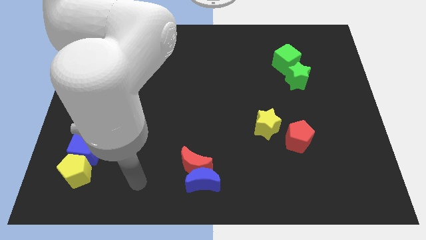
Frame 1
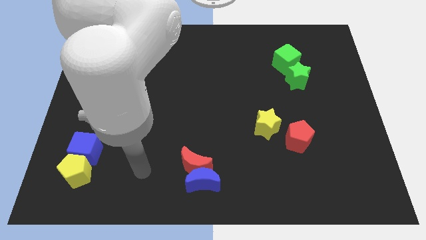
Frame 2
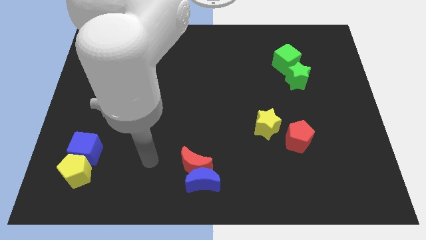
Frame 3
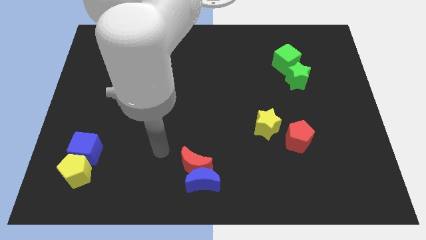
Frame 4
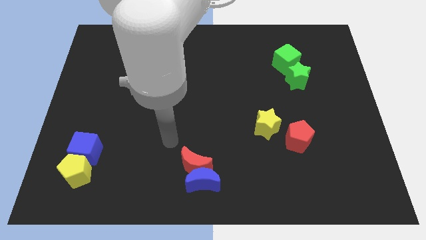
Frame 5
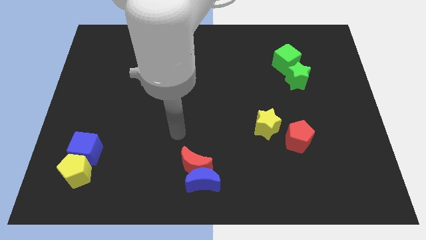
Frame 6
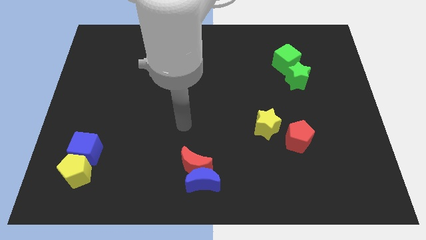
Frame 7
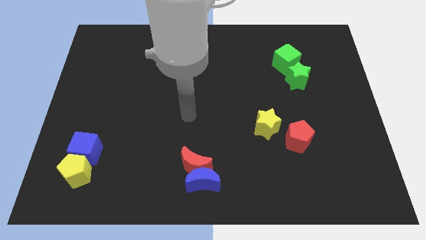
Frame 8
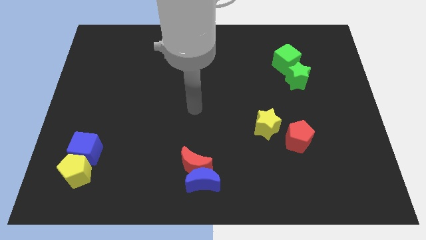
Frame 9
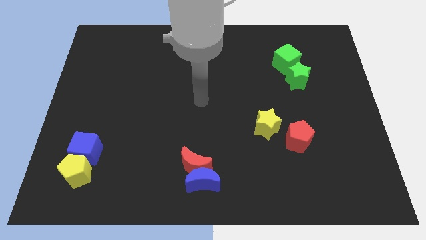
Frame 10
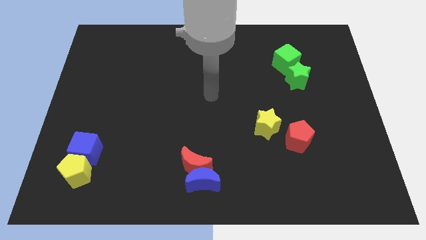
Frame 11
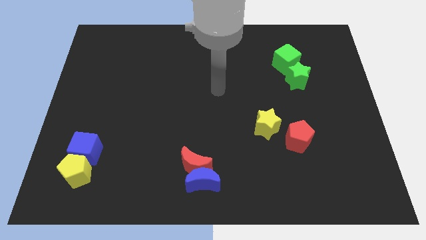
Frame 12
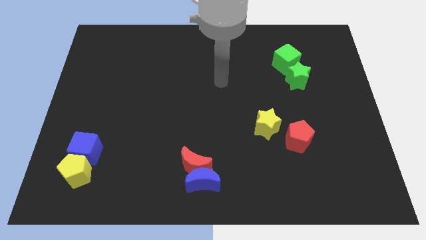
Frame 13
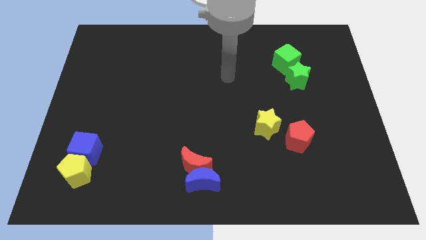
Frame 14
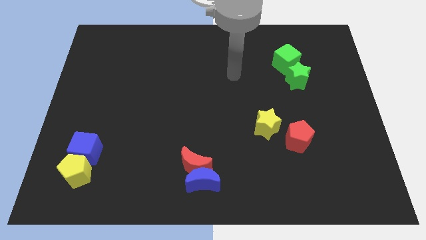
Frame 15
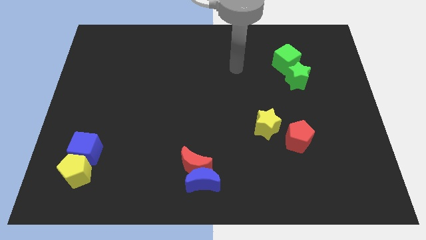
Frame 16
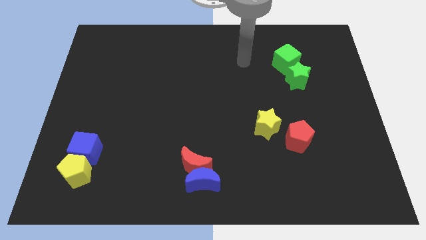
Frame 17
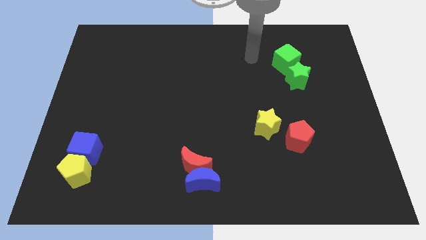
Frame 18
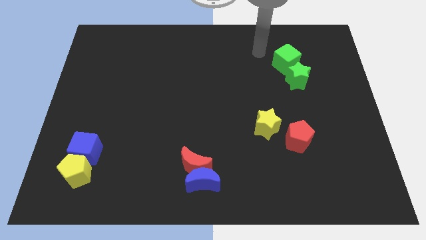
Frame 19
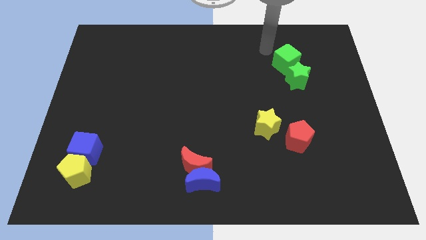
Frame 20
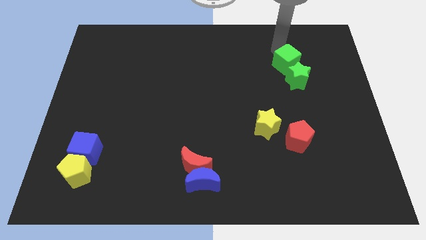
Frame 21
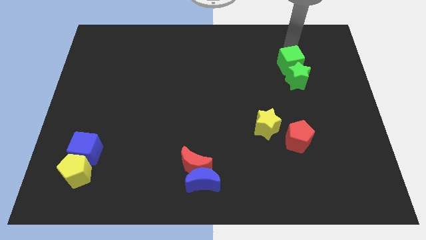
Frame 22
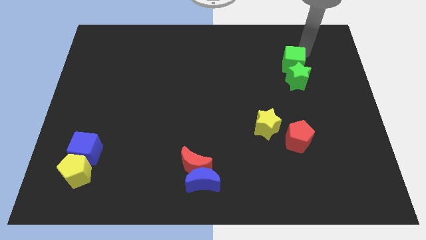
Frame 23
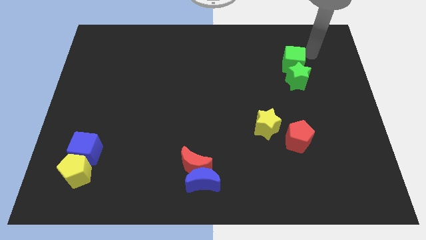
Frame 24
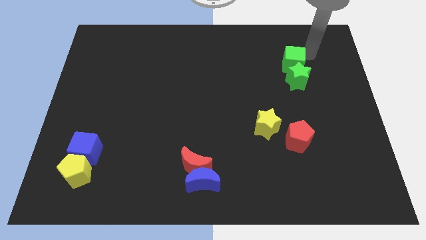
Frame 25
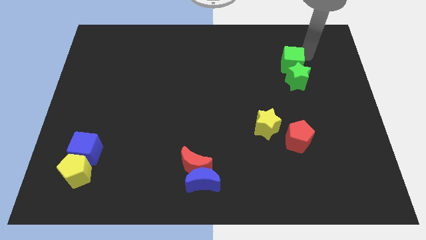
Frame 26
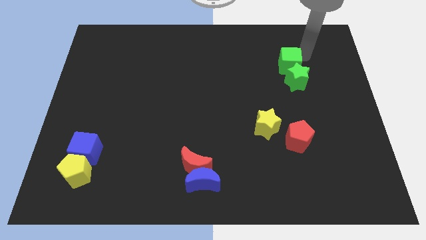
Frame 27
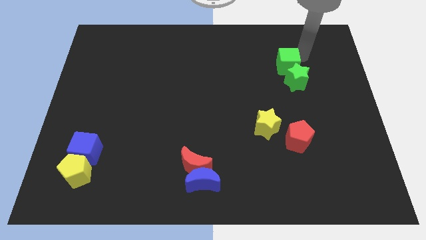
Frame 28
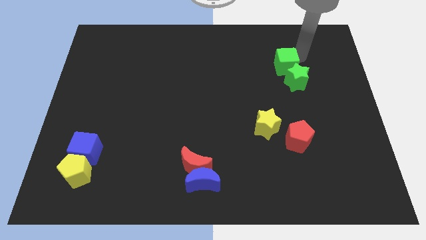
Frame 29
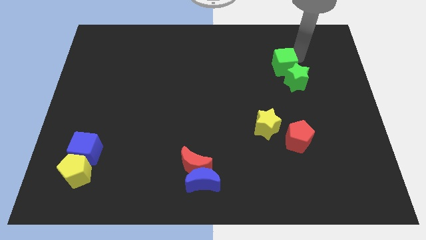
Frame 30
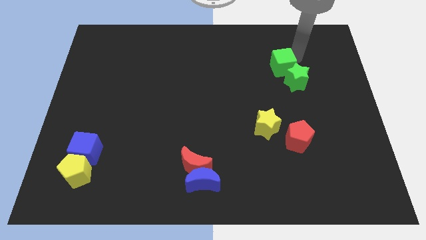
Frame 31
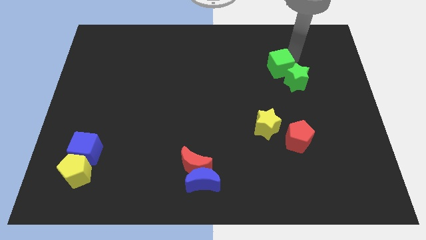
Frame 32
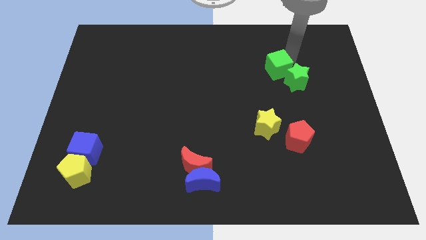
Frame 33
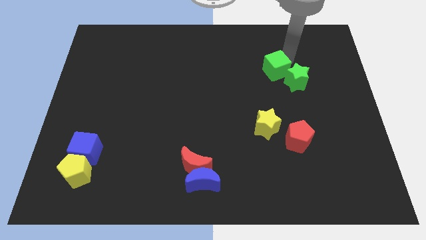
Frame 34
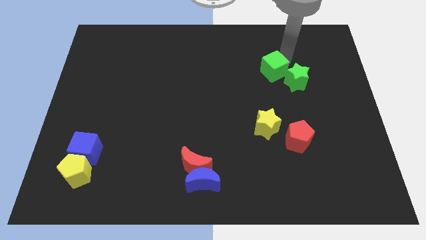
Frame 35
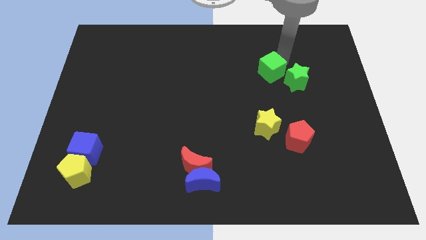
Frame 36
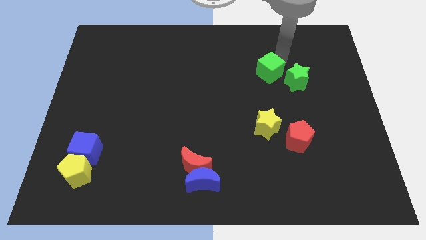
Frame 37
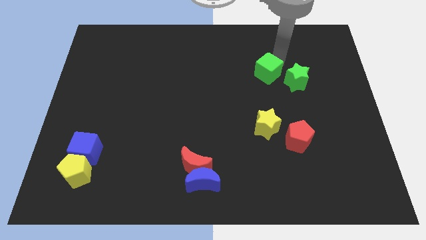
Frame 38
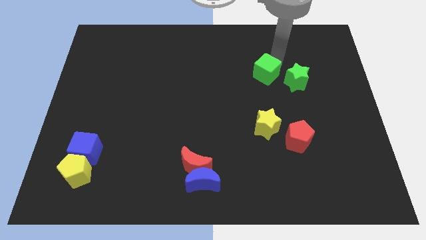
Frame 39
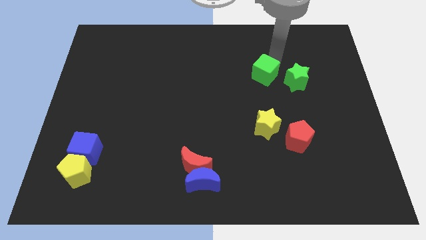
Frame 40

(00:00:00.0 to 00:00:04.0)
slide the green cube a little down and then to the left

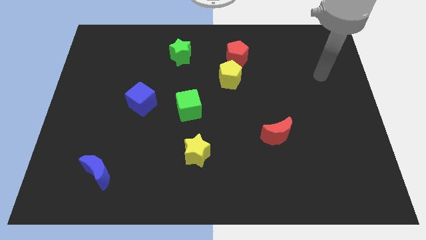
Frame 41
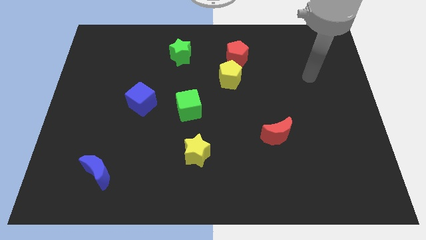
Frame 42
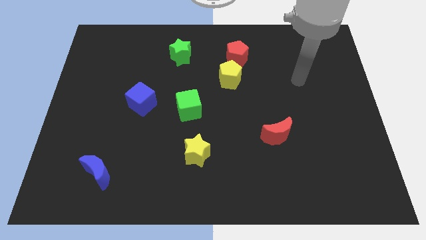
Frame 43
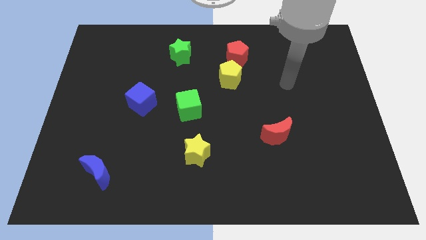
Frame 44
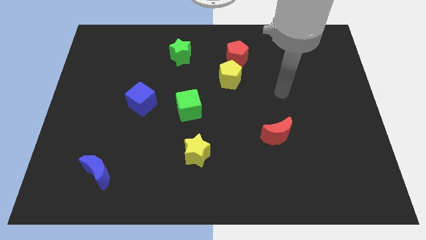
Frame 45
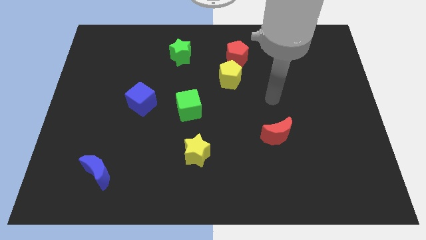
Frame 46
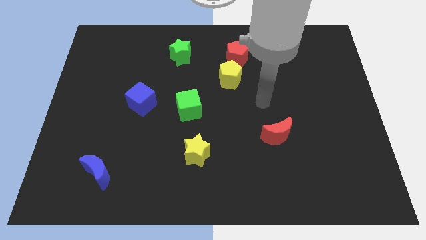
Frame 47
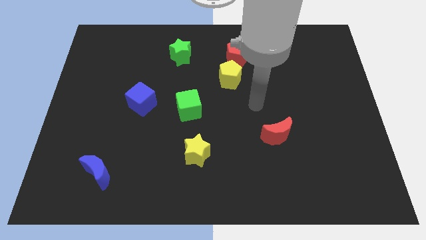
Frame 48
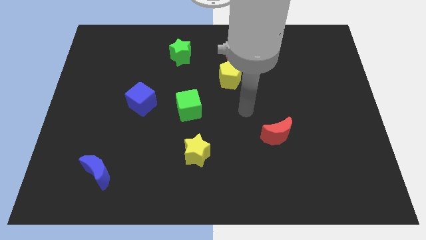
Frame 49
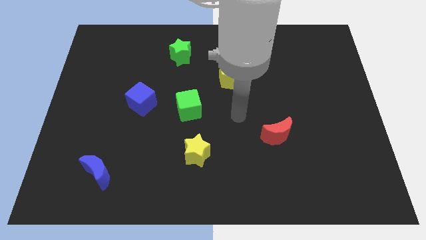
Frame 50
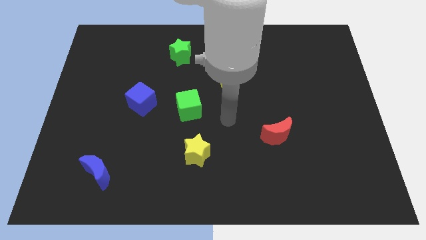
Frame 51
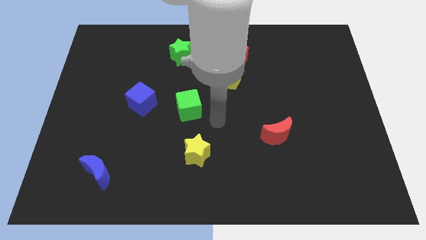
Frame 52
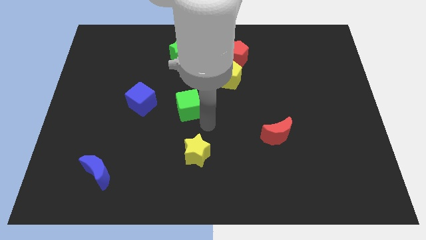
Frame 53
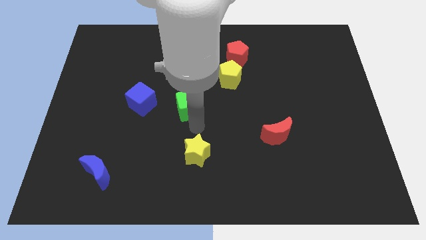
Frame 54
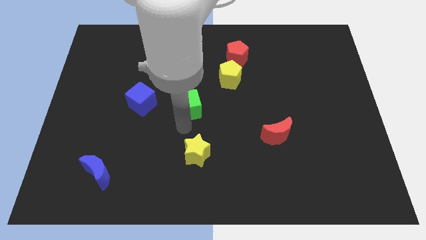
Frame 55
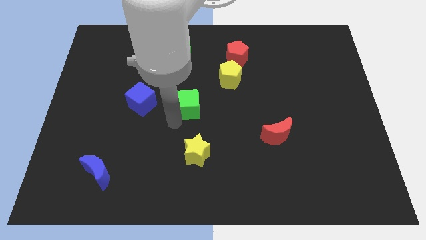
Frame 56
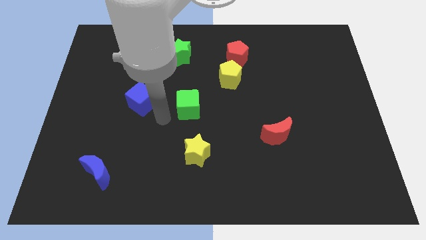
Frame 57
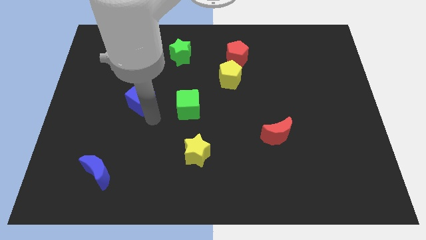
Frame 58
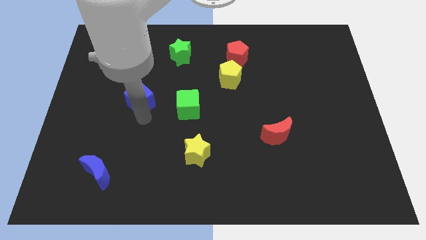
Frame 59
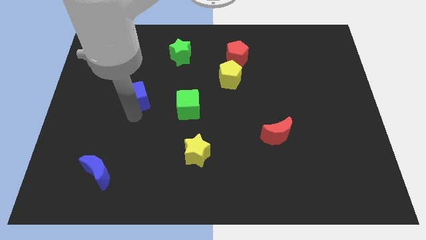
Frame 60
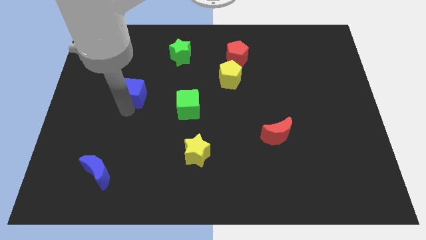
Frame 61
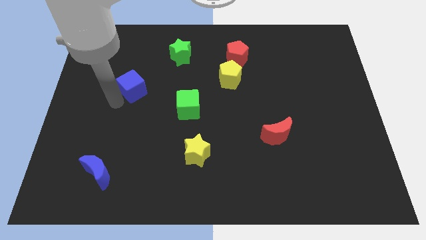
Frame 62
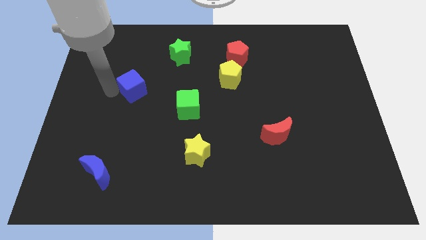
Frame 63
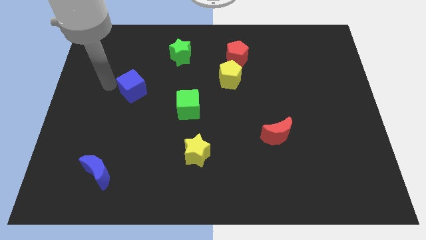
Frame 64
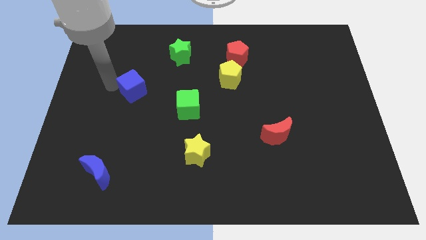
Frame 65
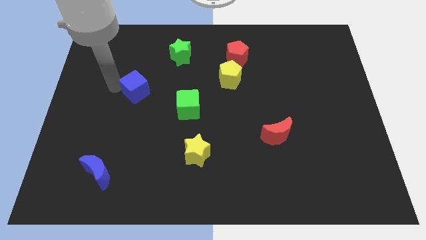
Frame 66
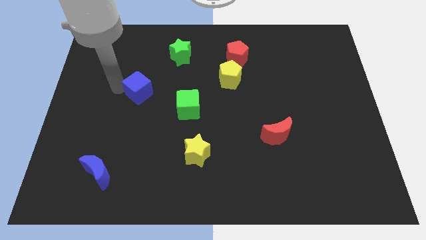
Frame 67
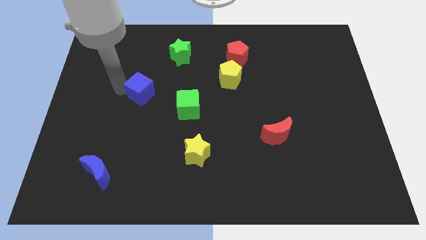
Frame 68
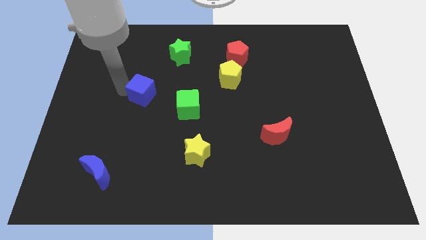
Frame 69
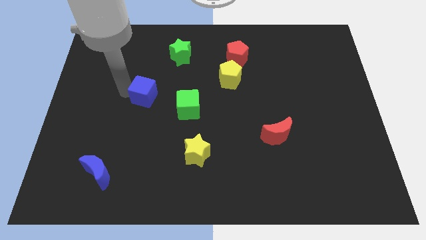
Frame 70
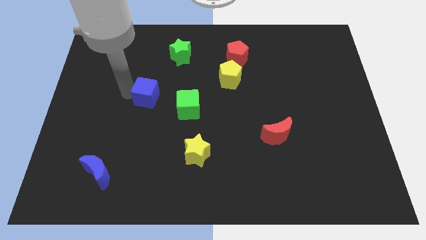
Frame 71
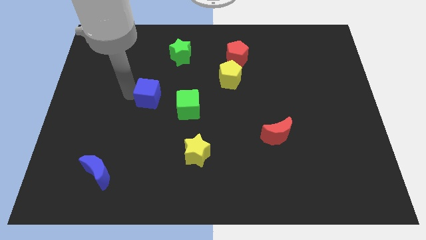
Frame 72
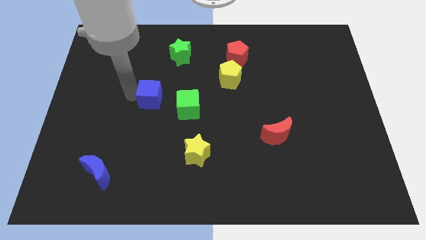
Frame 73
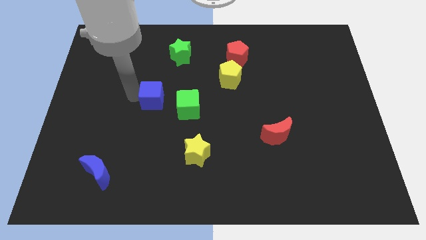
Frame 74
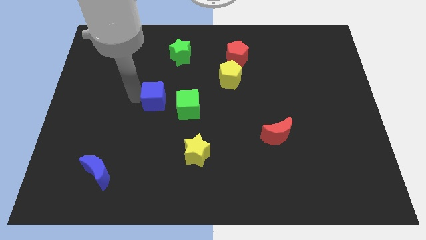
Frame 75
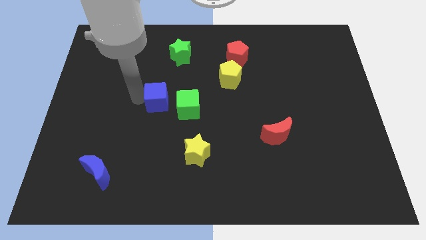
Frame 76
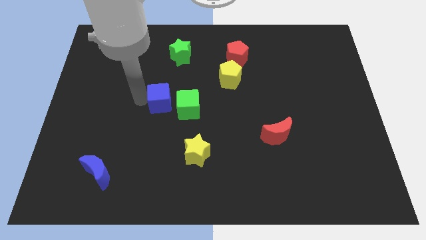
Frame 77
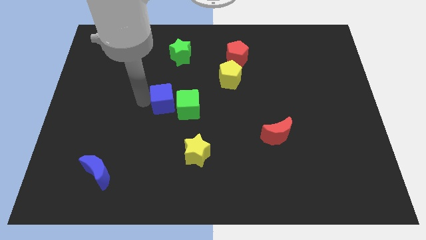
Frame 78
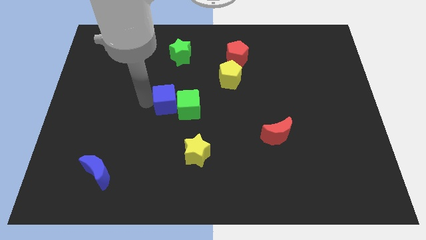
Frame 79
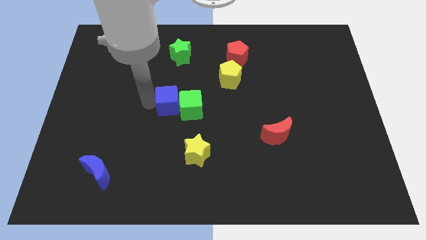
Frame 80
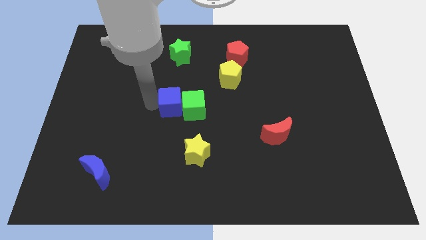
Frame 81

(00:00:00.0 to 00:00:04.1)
move the blue cube to the right a bit
